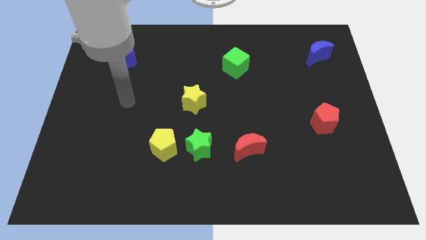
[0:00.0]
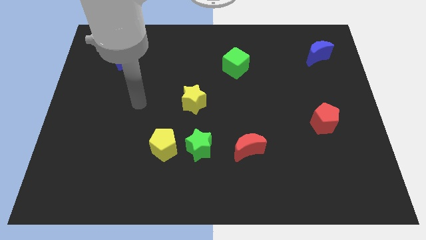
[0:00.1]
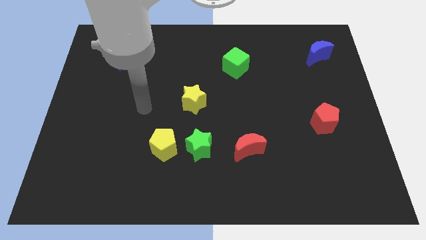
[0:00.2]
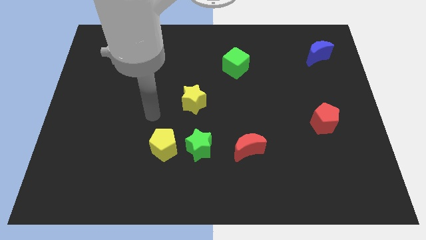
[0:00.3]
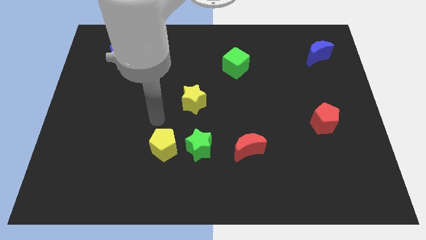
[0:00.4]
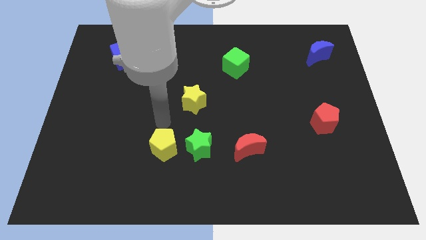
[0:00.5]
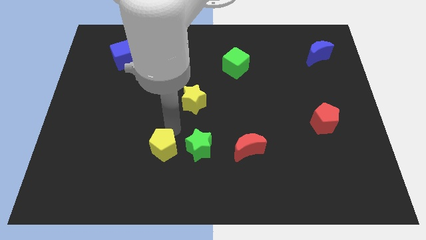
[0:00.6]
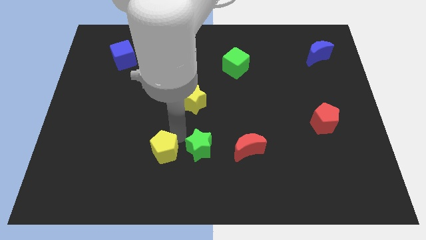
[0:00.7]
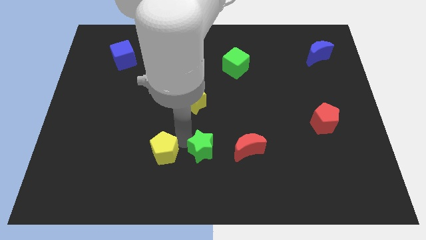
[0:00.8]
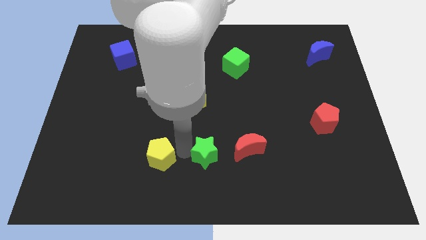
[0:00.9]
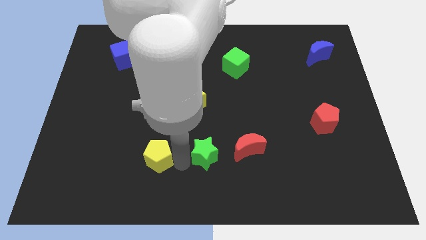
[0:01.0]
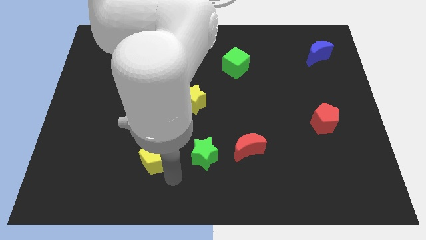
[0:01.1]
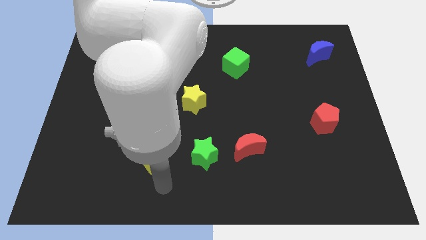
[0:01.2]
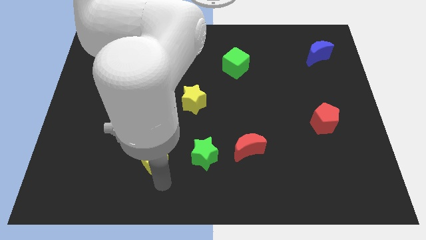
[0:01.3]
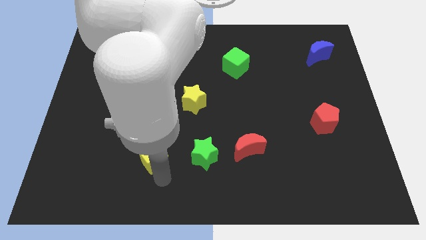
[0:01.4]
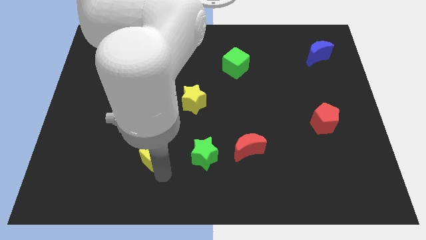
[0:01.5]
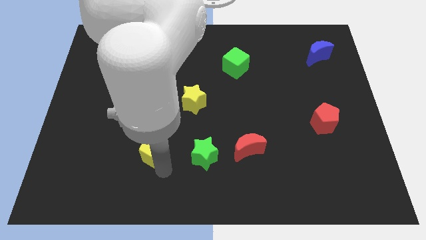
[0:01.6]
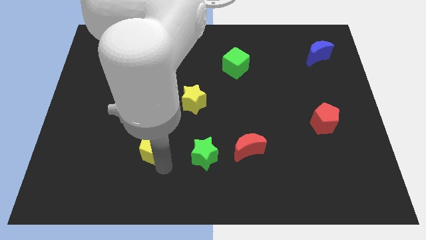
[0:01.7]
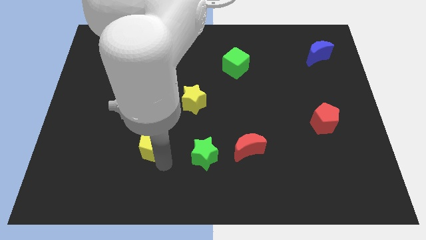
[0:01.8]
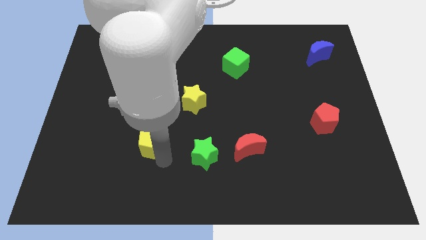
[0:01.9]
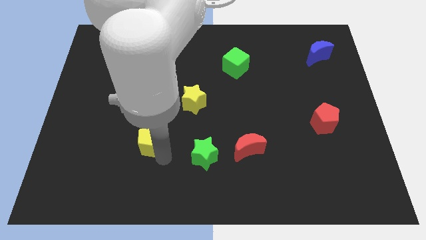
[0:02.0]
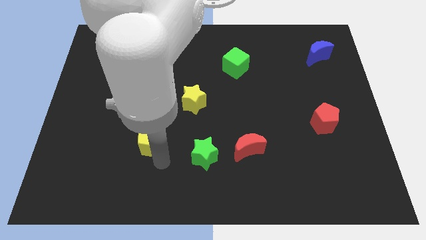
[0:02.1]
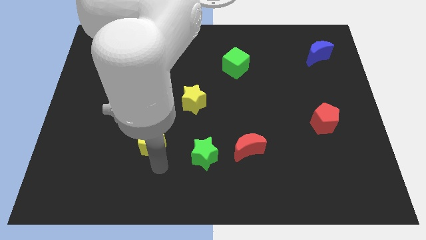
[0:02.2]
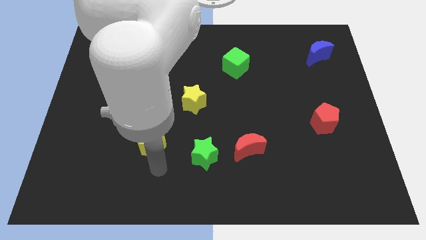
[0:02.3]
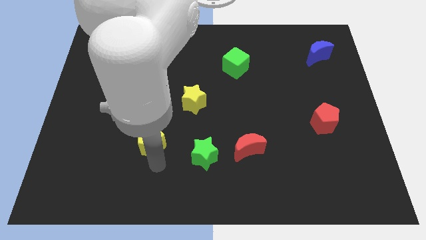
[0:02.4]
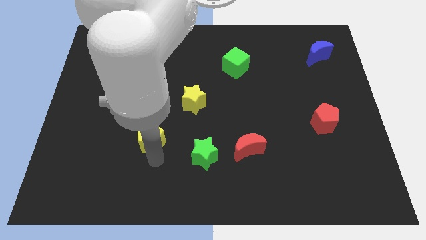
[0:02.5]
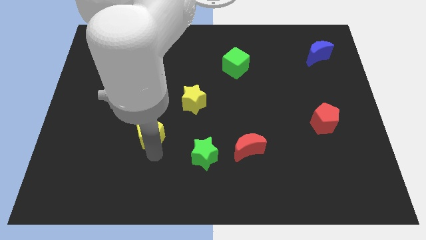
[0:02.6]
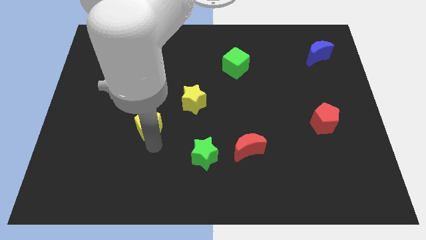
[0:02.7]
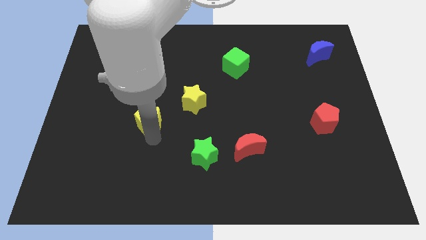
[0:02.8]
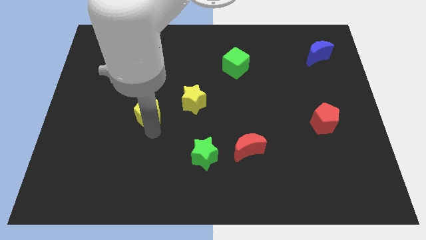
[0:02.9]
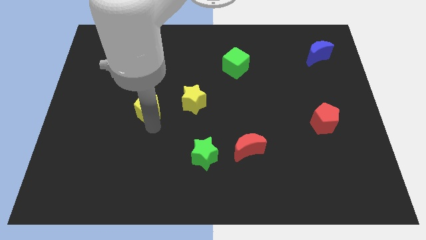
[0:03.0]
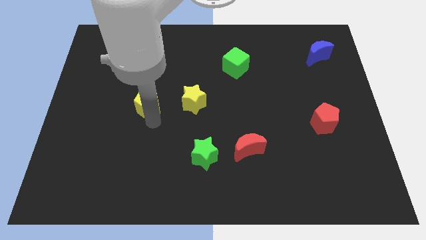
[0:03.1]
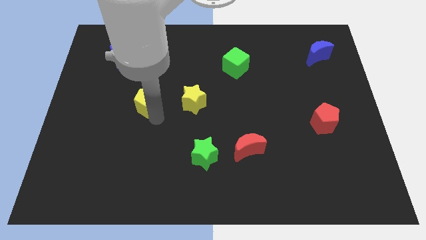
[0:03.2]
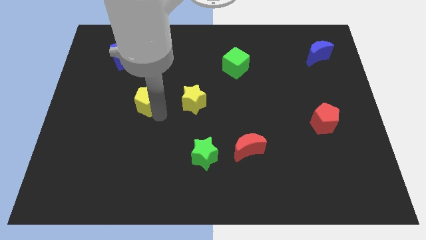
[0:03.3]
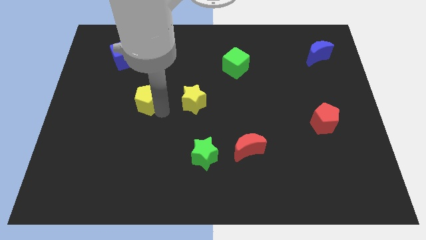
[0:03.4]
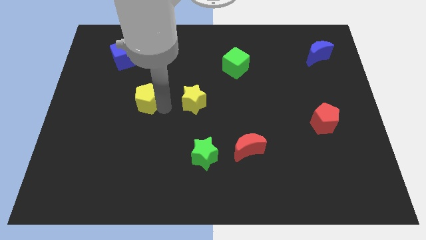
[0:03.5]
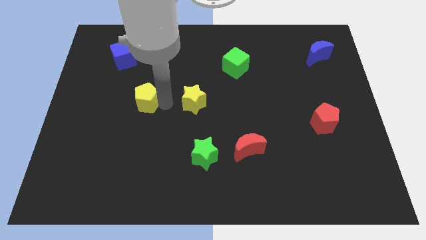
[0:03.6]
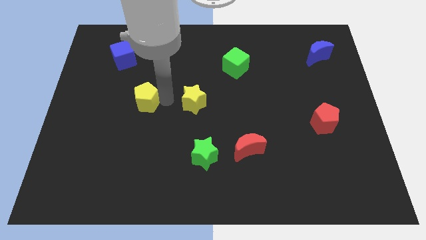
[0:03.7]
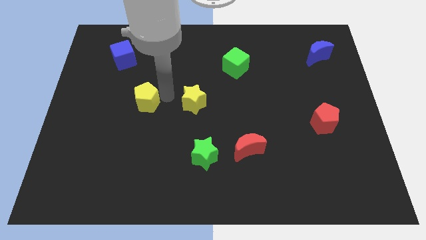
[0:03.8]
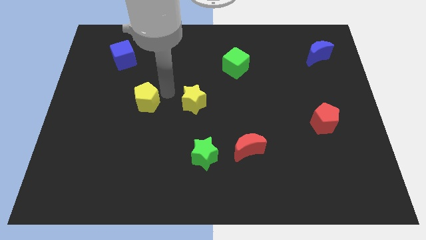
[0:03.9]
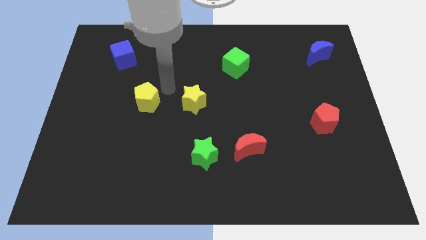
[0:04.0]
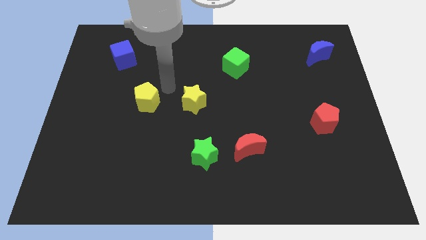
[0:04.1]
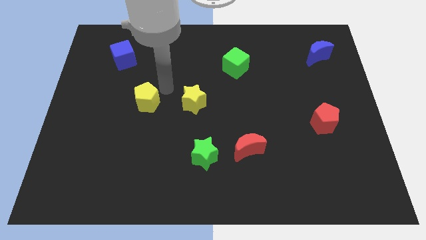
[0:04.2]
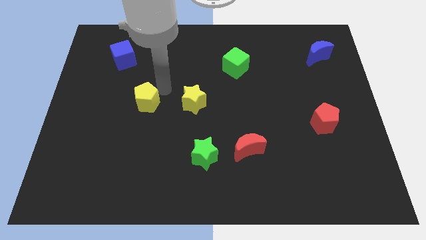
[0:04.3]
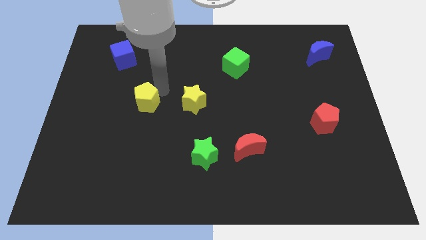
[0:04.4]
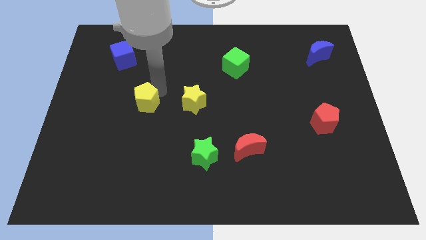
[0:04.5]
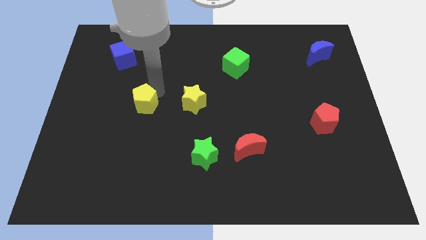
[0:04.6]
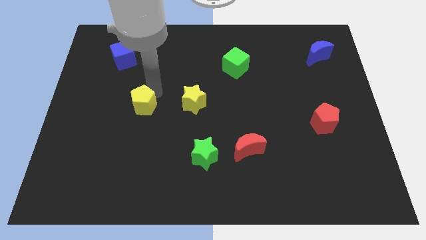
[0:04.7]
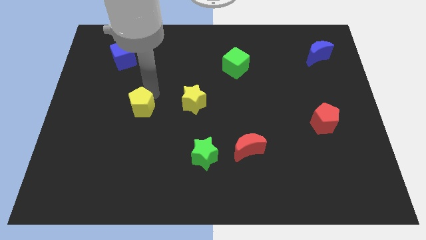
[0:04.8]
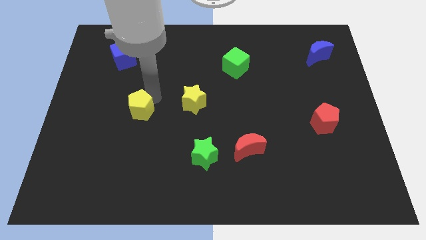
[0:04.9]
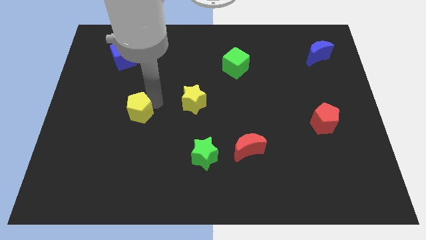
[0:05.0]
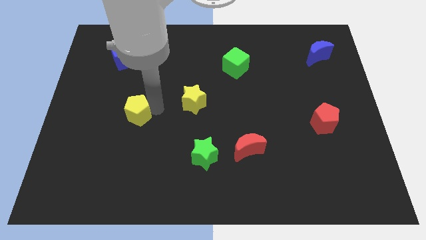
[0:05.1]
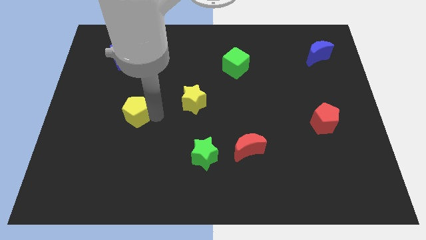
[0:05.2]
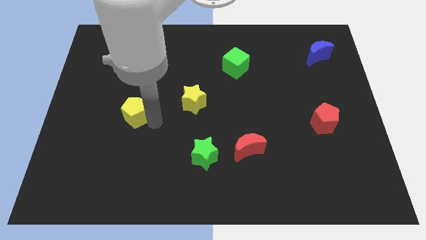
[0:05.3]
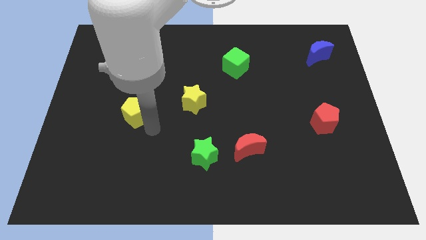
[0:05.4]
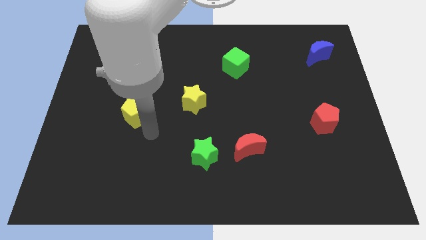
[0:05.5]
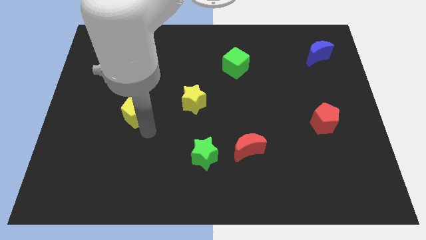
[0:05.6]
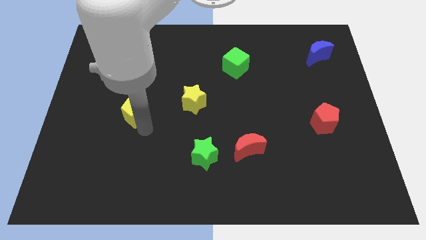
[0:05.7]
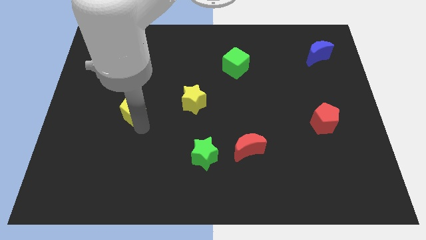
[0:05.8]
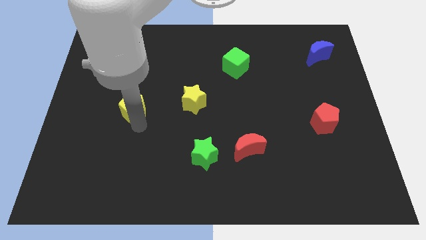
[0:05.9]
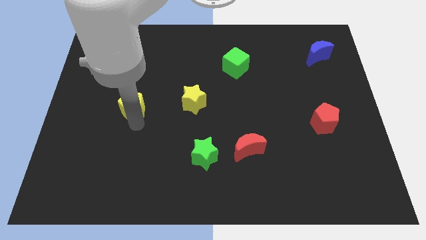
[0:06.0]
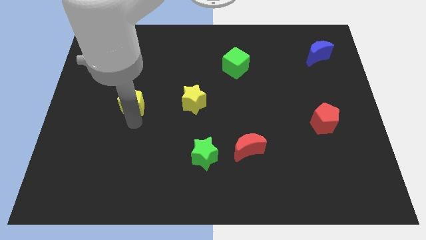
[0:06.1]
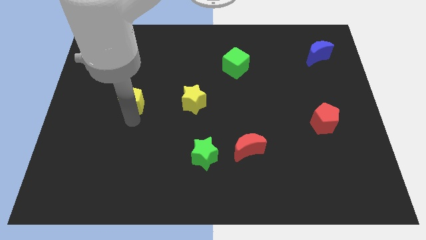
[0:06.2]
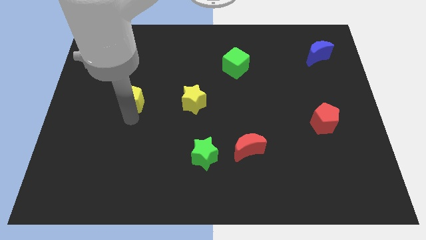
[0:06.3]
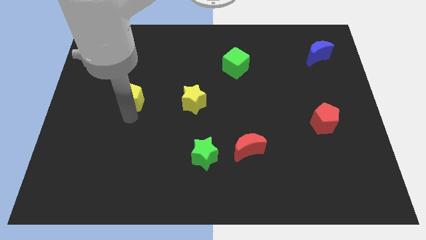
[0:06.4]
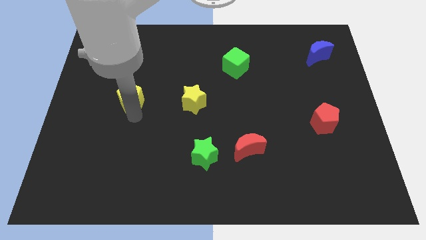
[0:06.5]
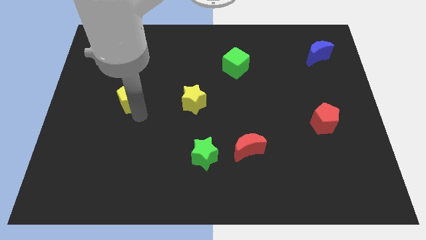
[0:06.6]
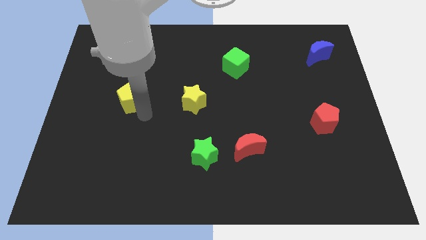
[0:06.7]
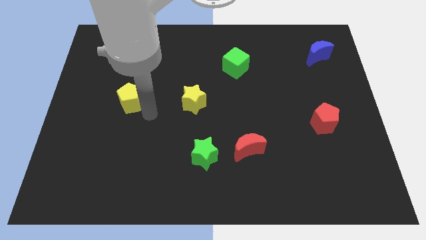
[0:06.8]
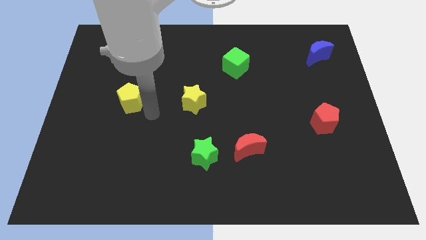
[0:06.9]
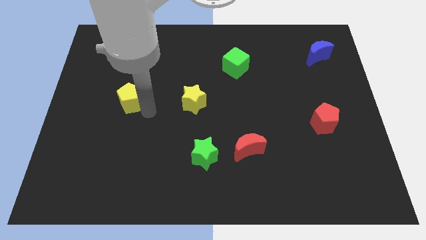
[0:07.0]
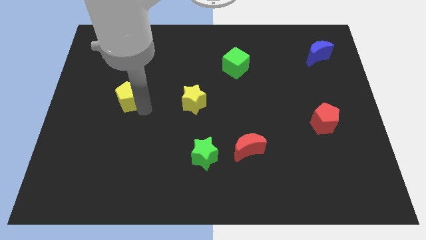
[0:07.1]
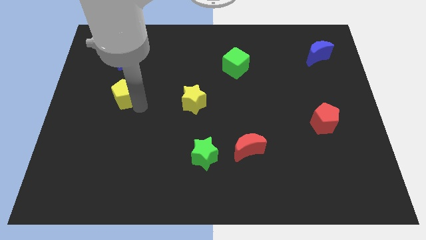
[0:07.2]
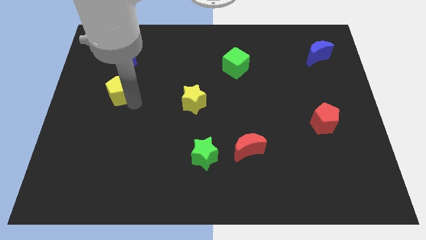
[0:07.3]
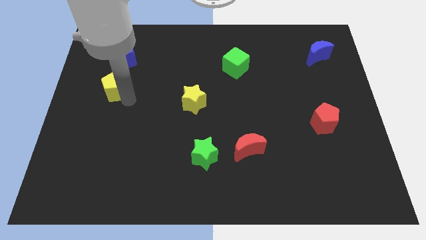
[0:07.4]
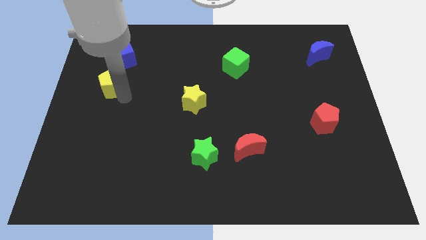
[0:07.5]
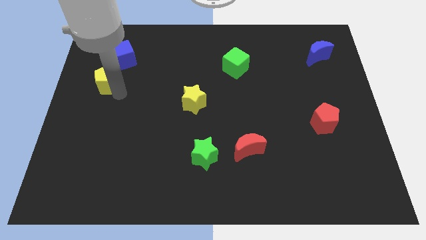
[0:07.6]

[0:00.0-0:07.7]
push the yellow pentagon diagonally down and to the left of the blue cube
